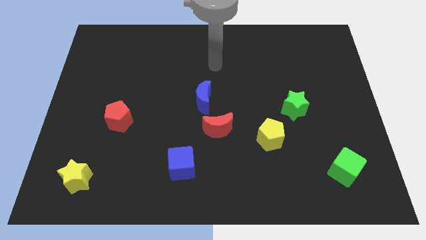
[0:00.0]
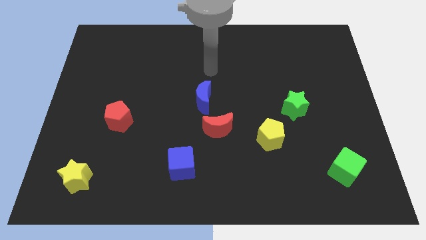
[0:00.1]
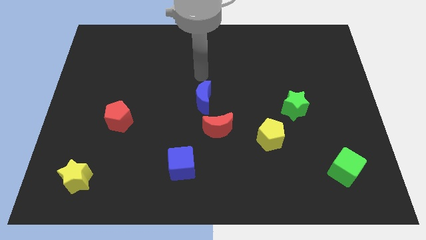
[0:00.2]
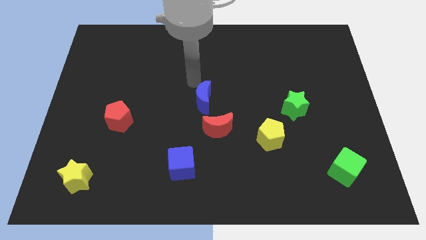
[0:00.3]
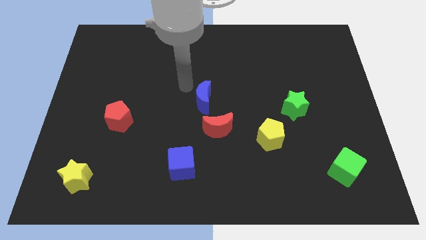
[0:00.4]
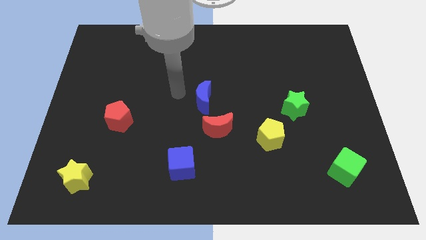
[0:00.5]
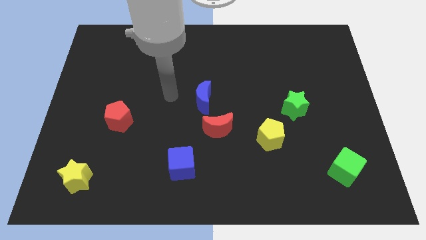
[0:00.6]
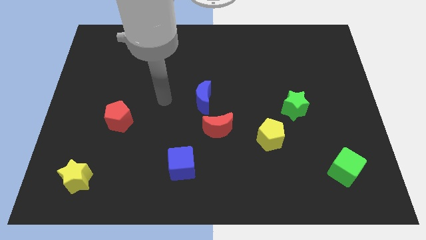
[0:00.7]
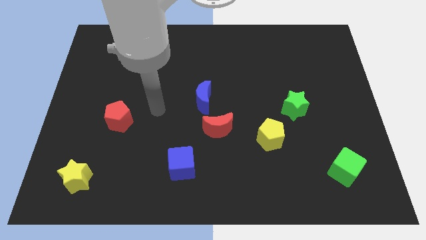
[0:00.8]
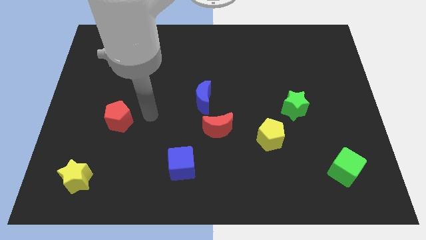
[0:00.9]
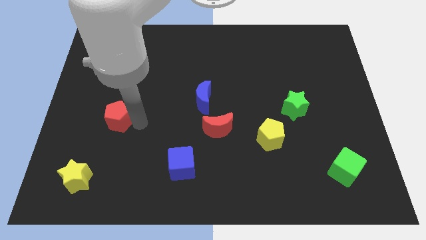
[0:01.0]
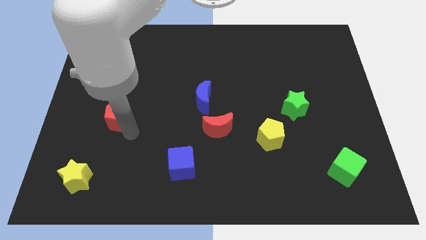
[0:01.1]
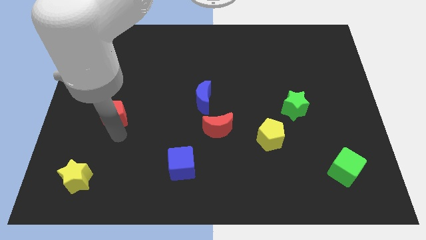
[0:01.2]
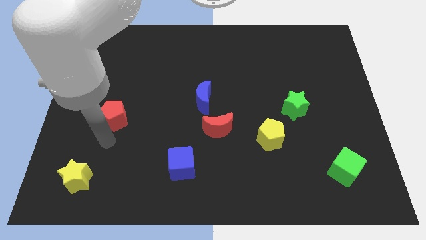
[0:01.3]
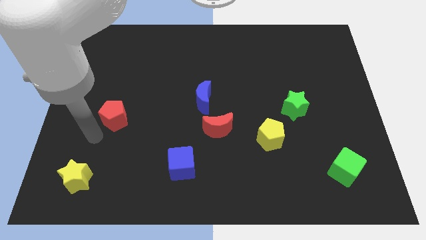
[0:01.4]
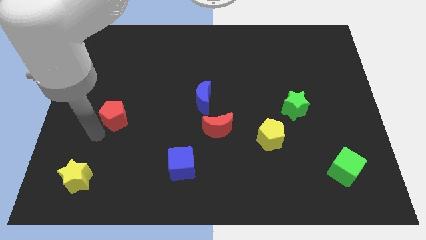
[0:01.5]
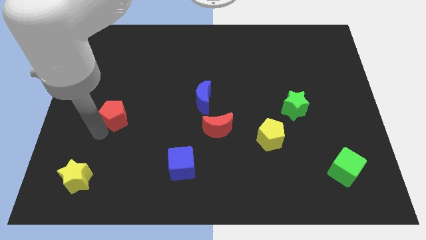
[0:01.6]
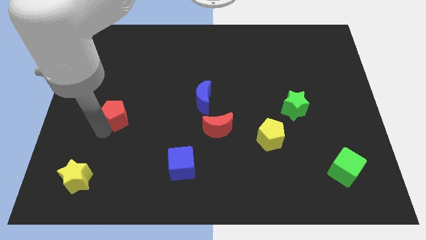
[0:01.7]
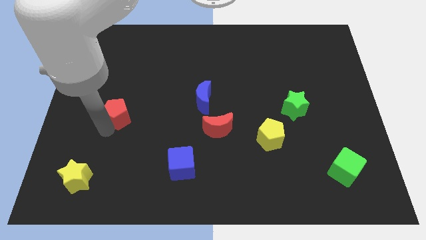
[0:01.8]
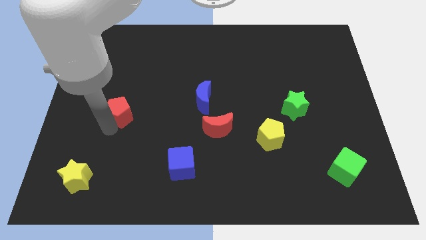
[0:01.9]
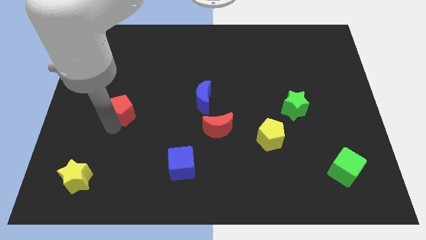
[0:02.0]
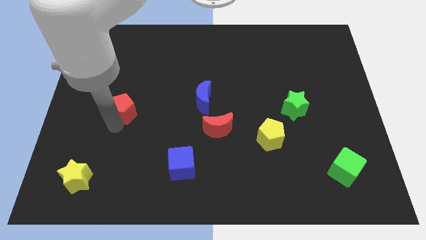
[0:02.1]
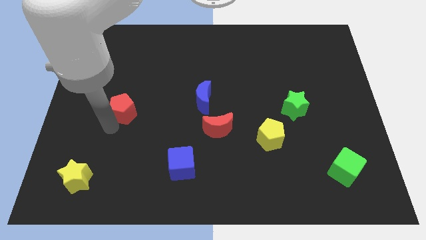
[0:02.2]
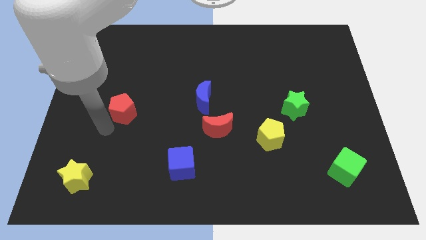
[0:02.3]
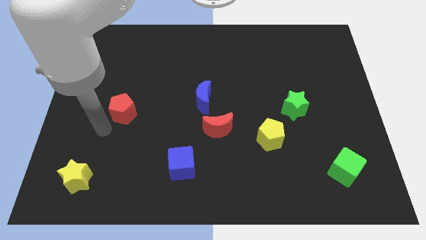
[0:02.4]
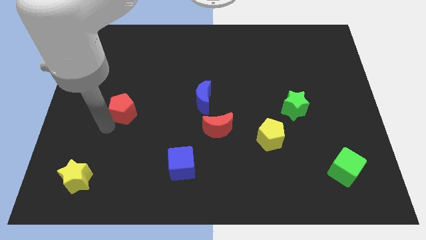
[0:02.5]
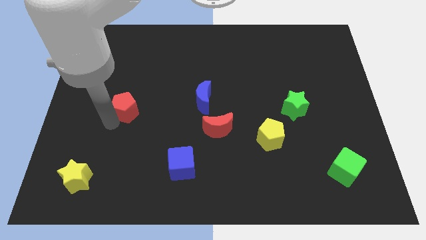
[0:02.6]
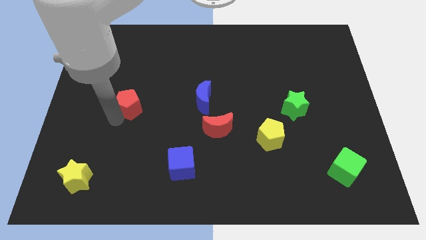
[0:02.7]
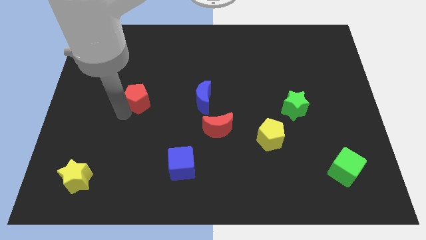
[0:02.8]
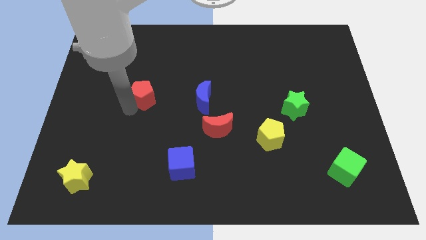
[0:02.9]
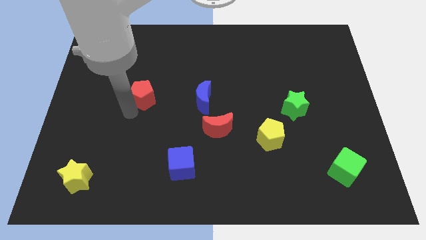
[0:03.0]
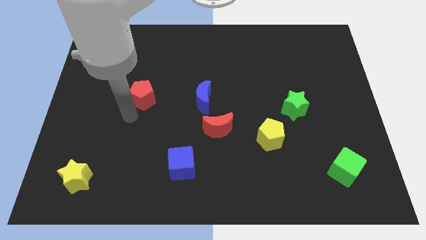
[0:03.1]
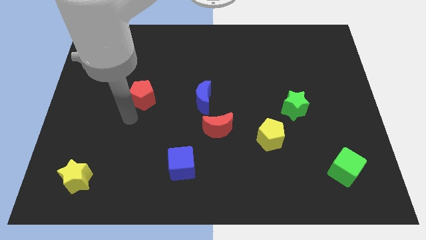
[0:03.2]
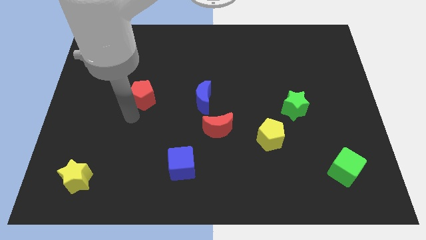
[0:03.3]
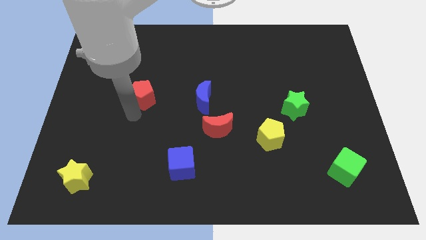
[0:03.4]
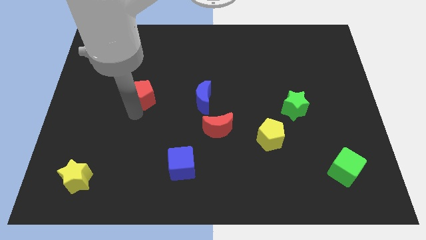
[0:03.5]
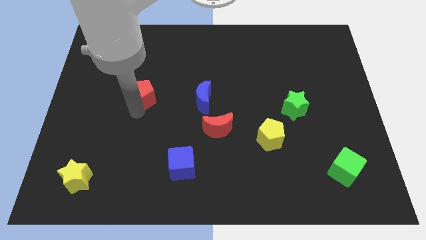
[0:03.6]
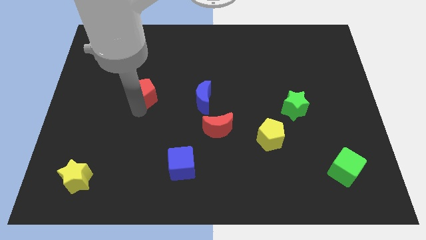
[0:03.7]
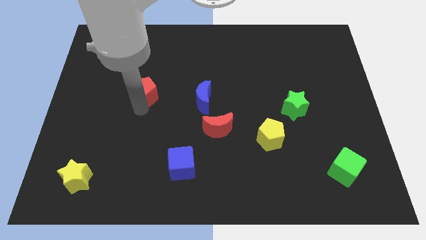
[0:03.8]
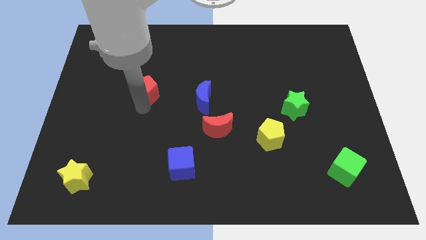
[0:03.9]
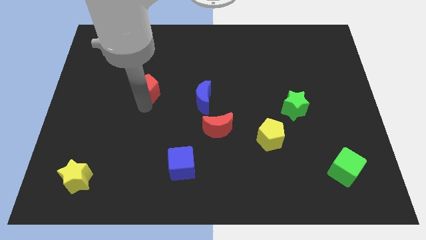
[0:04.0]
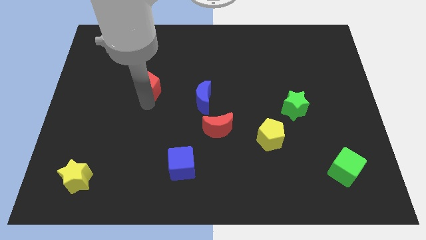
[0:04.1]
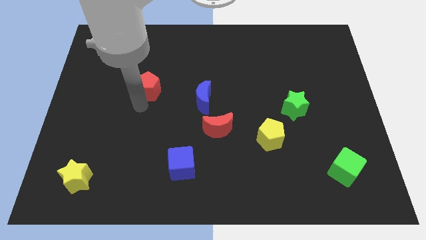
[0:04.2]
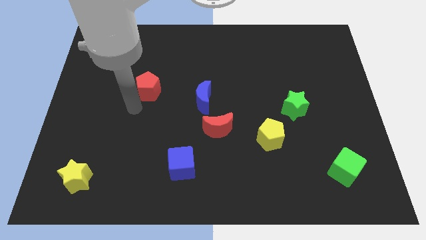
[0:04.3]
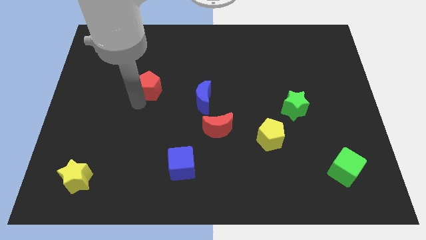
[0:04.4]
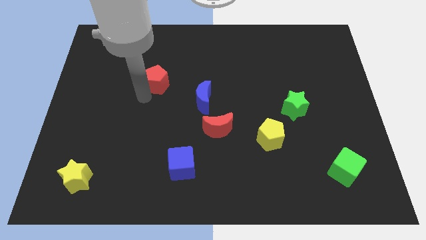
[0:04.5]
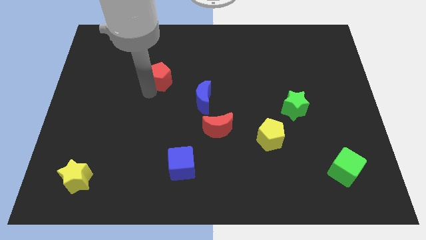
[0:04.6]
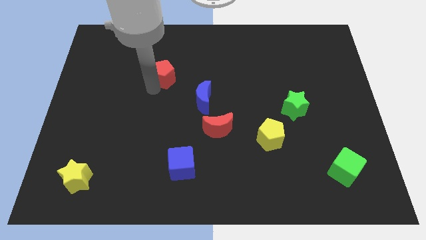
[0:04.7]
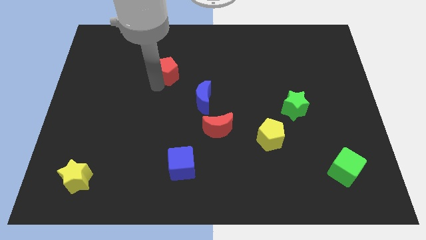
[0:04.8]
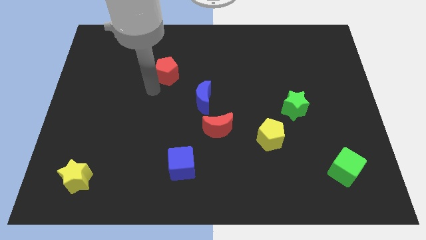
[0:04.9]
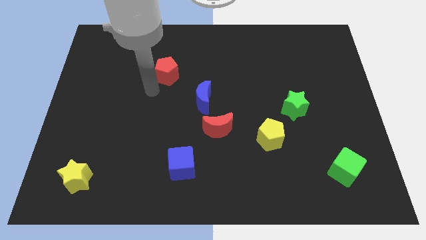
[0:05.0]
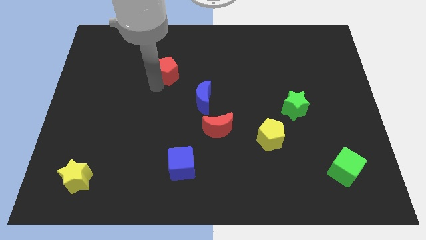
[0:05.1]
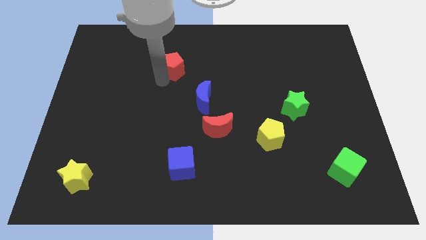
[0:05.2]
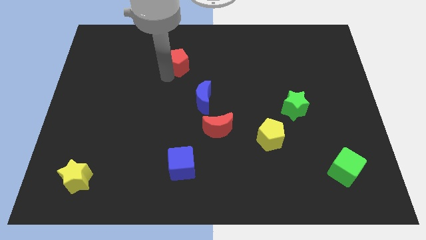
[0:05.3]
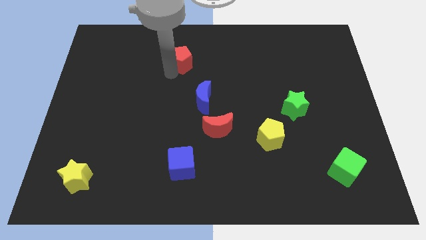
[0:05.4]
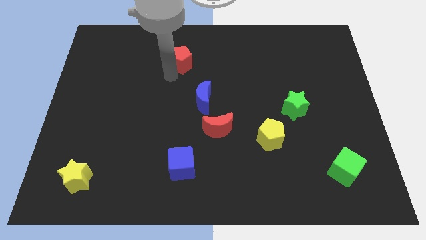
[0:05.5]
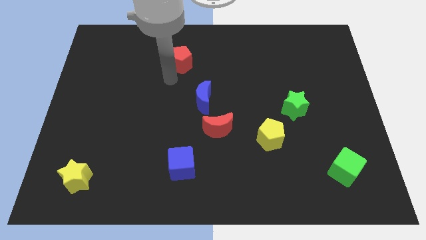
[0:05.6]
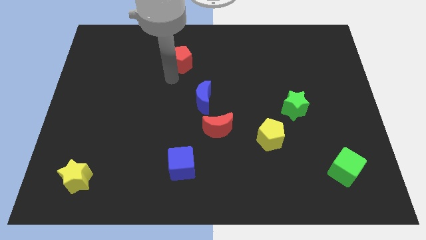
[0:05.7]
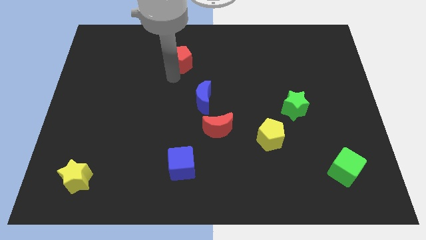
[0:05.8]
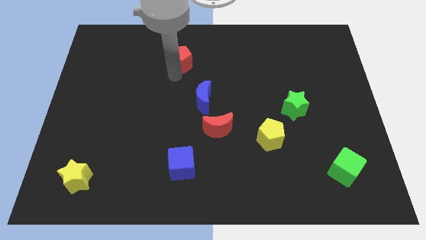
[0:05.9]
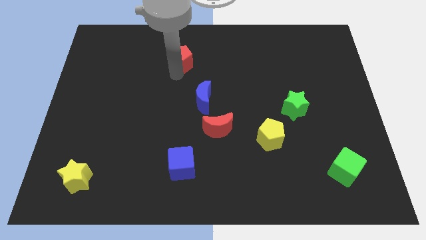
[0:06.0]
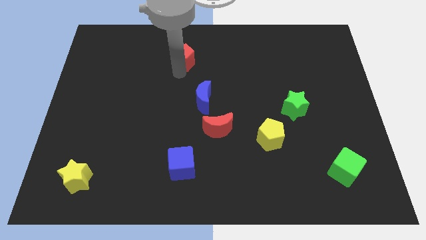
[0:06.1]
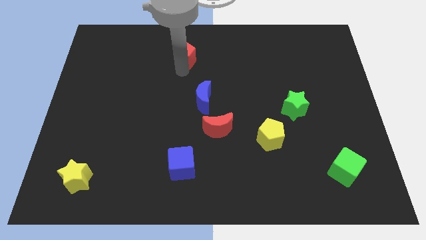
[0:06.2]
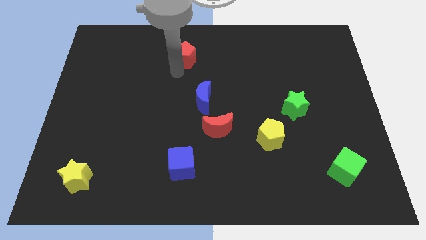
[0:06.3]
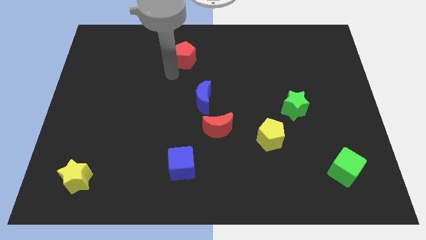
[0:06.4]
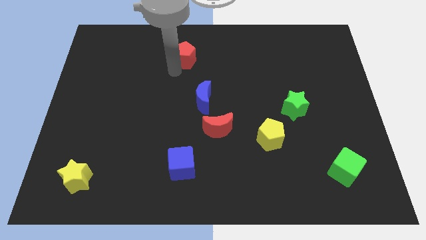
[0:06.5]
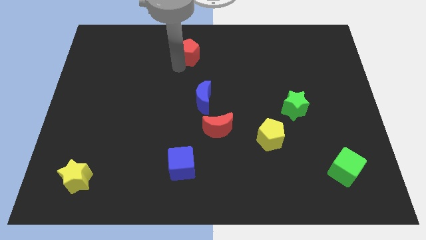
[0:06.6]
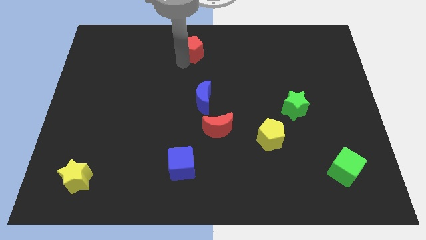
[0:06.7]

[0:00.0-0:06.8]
push the red pentagon to the top side
